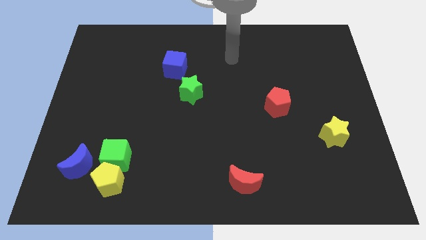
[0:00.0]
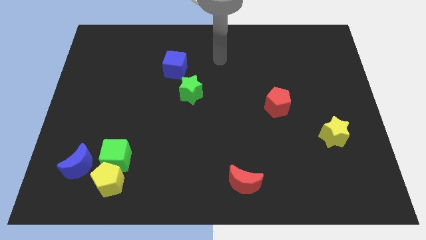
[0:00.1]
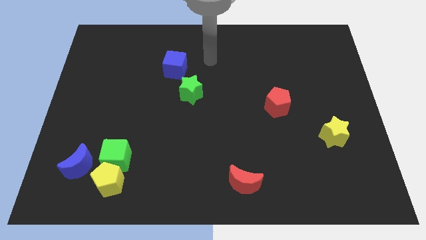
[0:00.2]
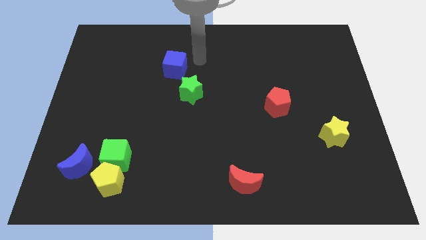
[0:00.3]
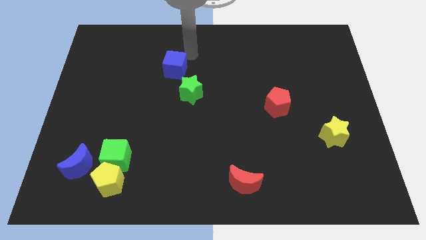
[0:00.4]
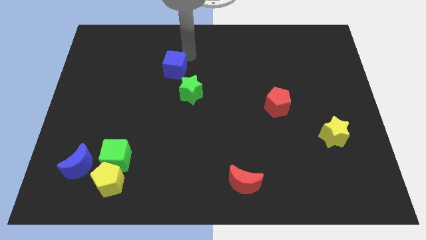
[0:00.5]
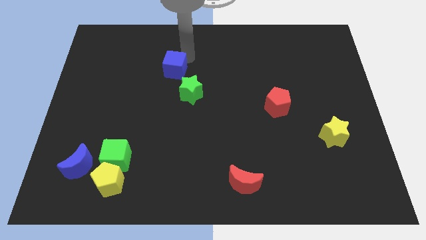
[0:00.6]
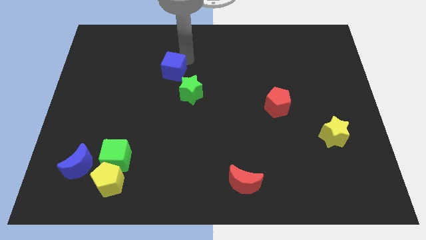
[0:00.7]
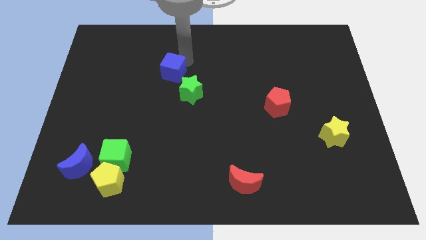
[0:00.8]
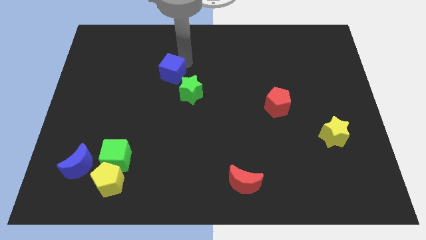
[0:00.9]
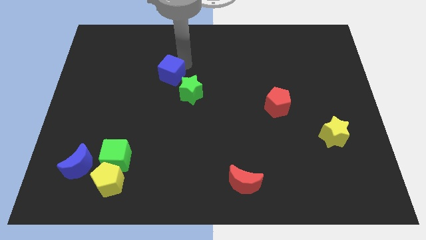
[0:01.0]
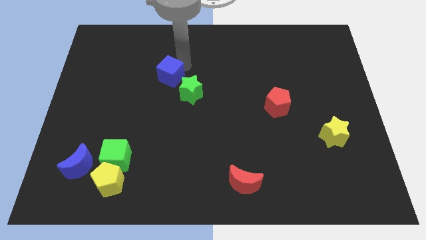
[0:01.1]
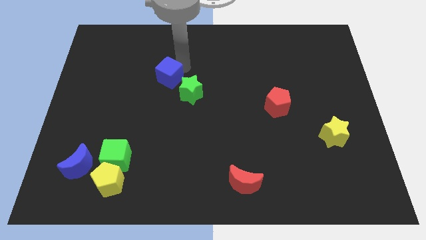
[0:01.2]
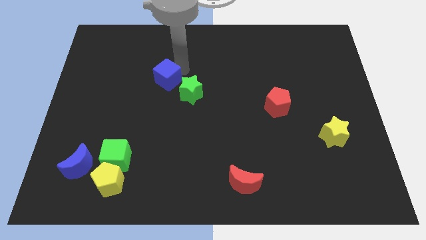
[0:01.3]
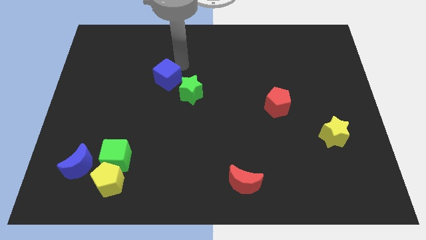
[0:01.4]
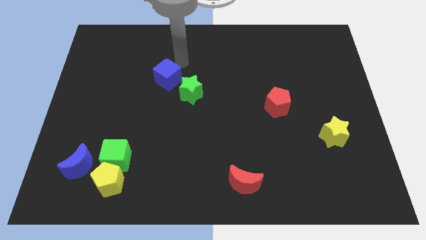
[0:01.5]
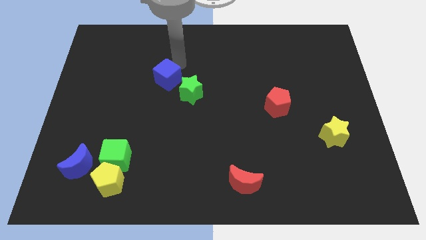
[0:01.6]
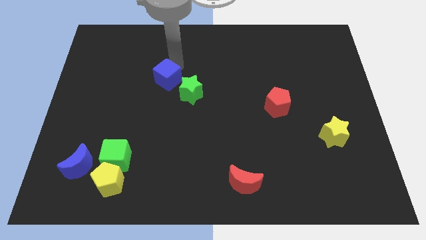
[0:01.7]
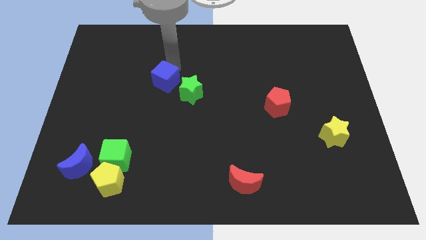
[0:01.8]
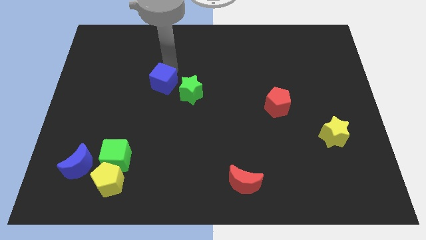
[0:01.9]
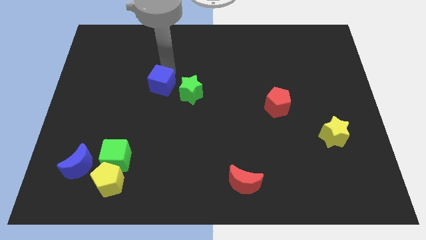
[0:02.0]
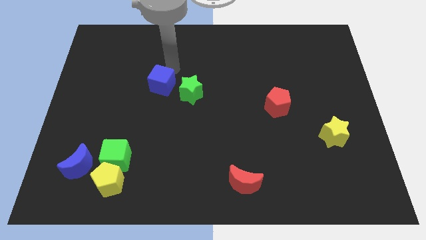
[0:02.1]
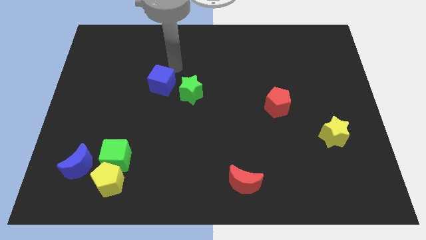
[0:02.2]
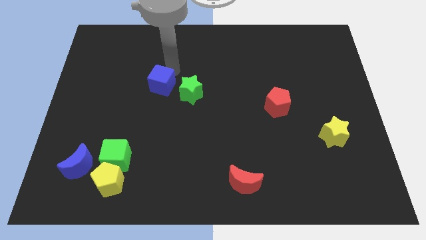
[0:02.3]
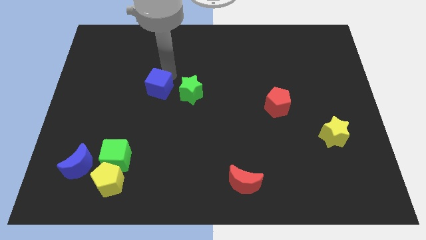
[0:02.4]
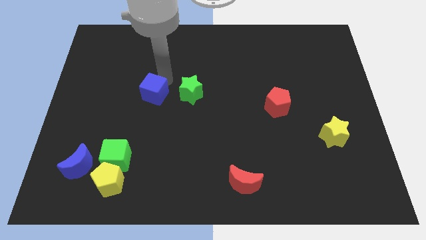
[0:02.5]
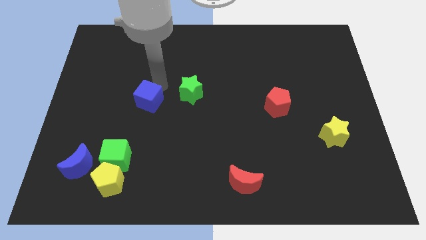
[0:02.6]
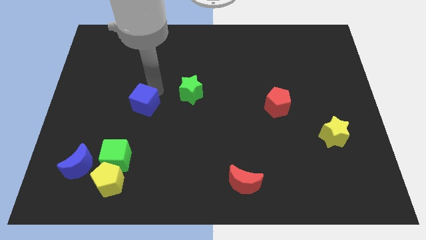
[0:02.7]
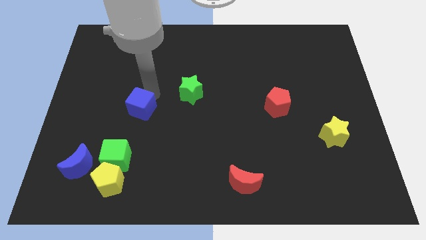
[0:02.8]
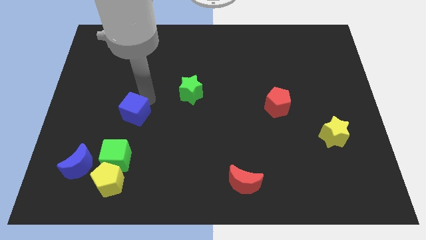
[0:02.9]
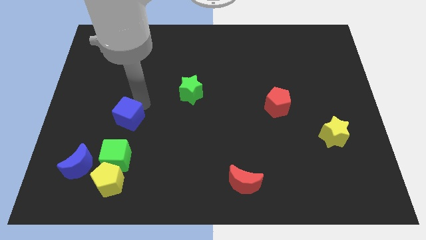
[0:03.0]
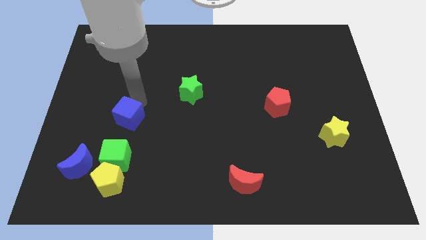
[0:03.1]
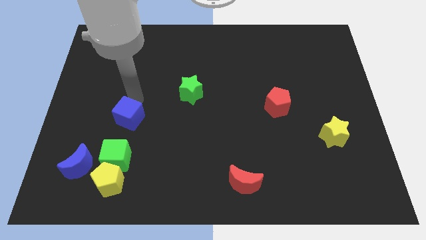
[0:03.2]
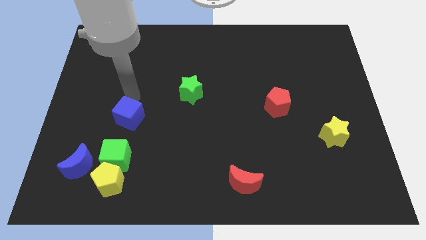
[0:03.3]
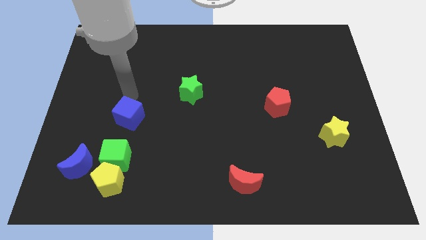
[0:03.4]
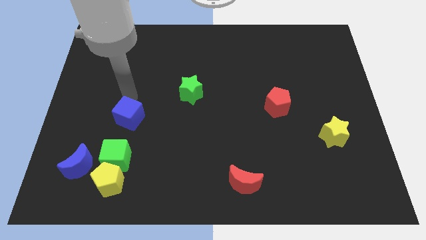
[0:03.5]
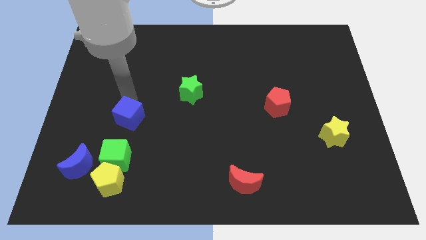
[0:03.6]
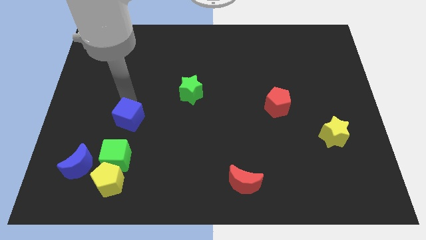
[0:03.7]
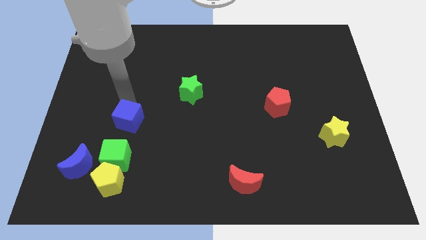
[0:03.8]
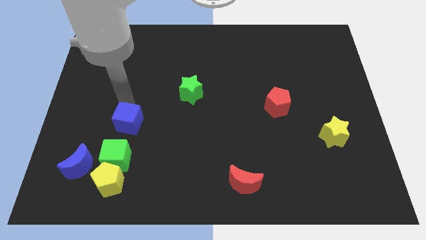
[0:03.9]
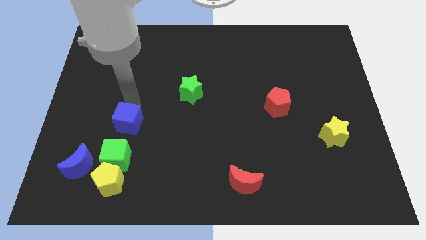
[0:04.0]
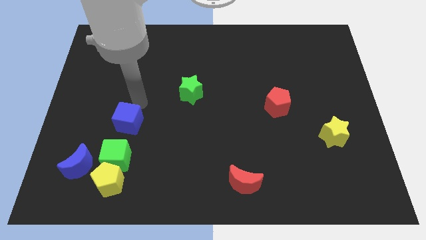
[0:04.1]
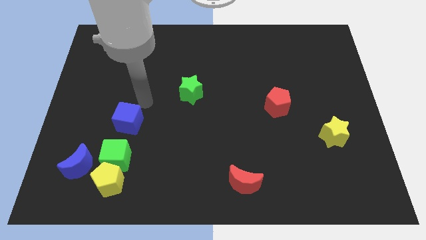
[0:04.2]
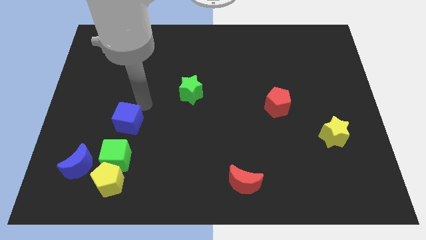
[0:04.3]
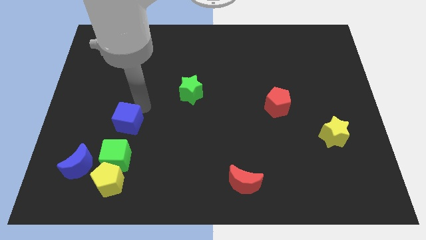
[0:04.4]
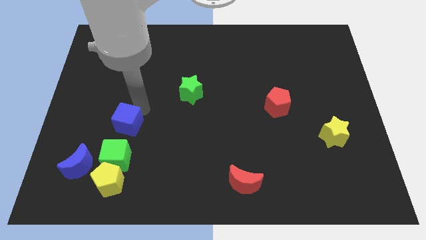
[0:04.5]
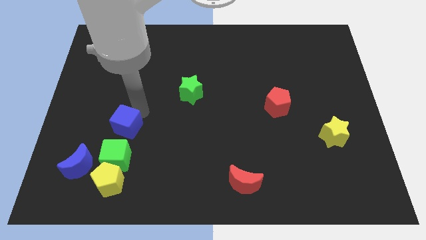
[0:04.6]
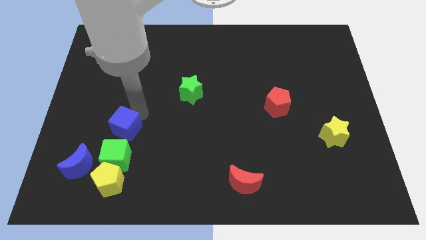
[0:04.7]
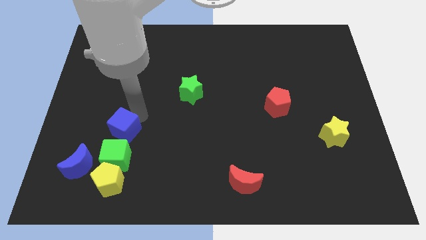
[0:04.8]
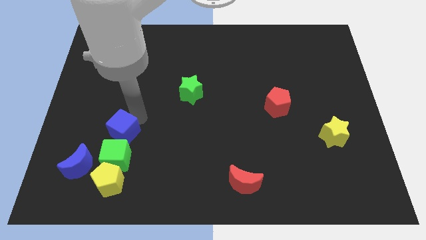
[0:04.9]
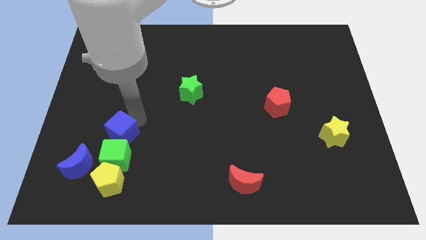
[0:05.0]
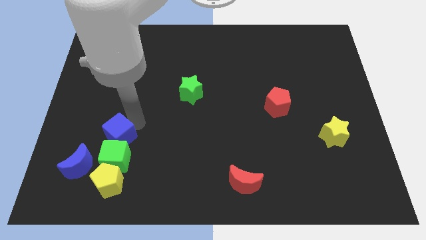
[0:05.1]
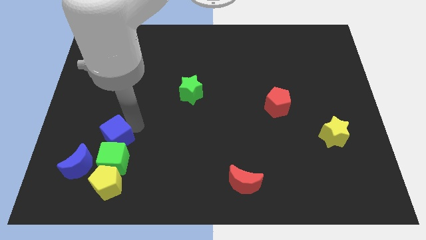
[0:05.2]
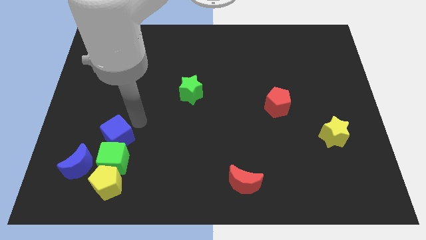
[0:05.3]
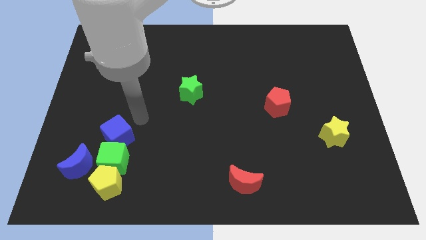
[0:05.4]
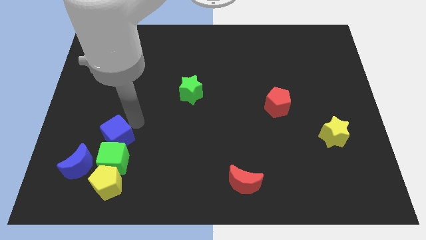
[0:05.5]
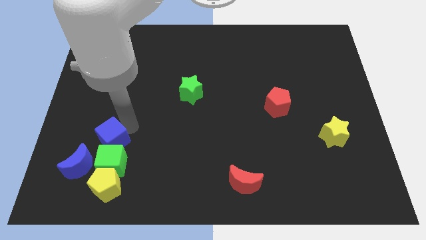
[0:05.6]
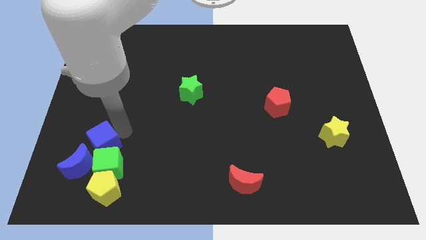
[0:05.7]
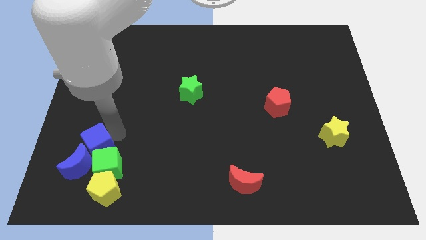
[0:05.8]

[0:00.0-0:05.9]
push the blue cube close to the blue moon

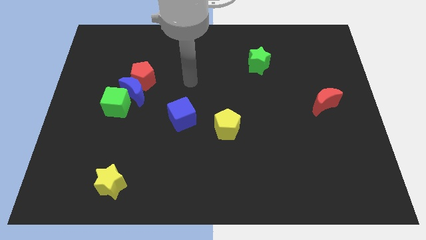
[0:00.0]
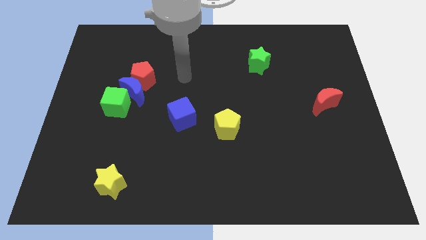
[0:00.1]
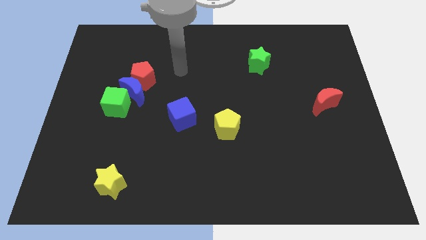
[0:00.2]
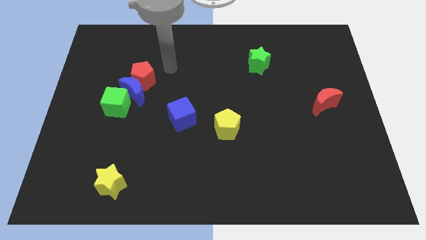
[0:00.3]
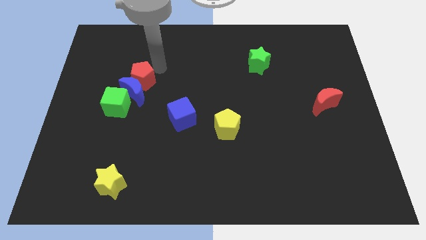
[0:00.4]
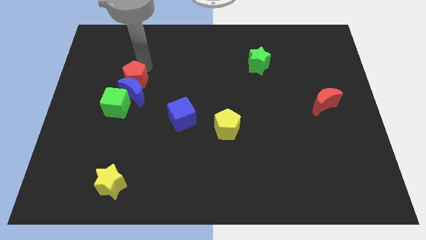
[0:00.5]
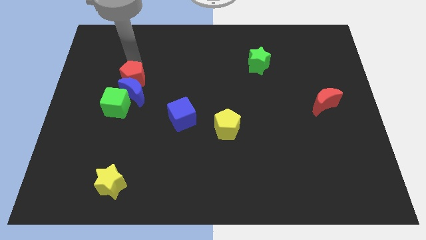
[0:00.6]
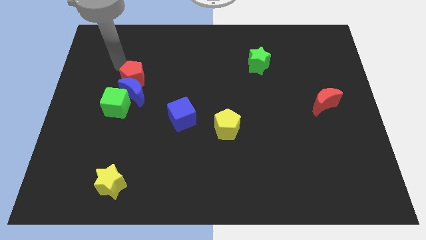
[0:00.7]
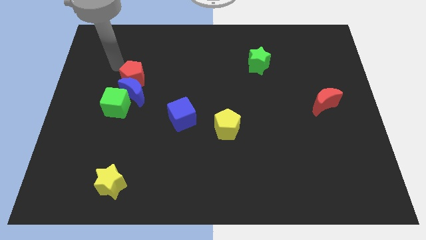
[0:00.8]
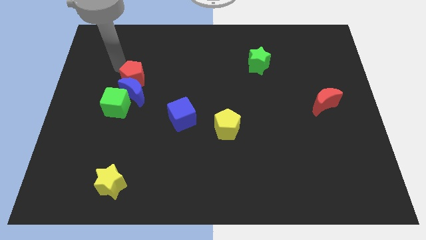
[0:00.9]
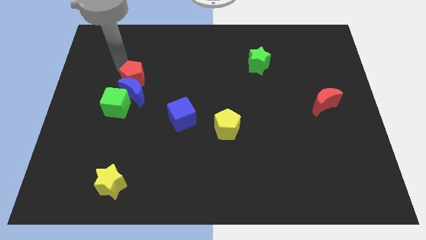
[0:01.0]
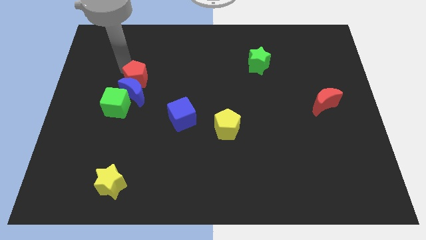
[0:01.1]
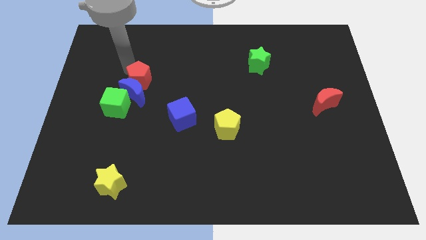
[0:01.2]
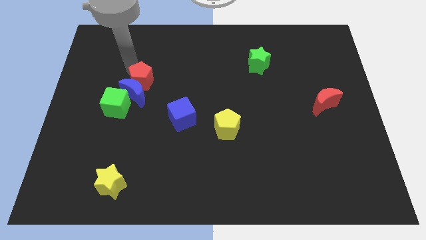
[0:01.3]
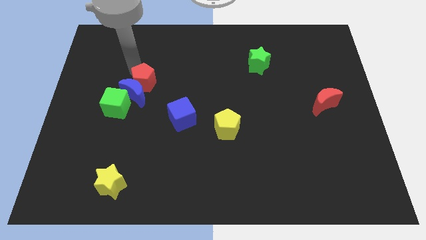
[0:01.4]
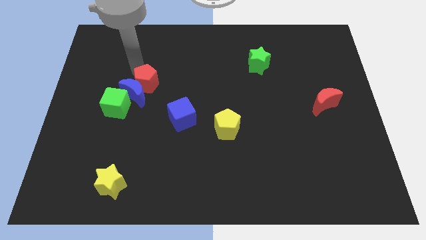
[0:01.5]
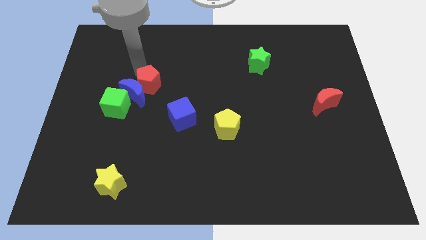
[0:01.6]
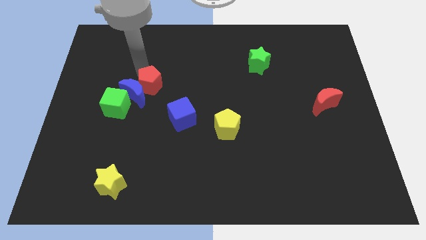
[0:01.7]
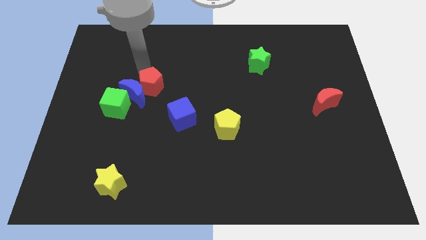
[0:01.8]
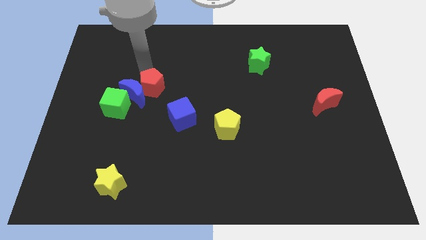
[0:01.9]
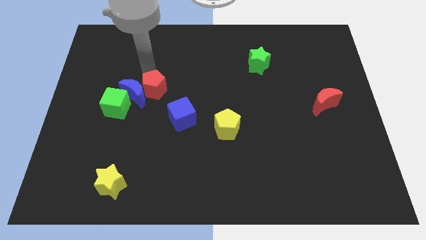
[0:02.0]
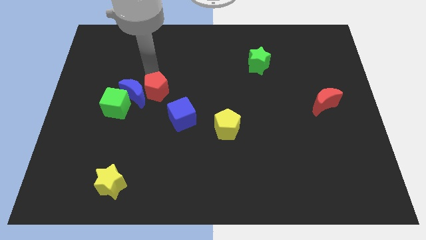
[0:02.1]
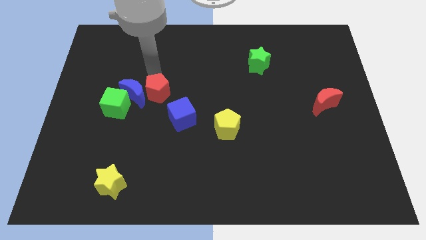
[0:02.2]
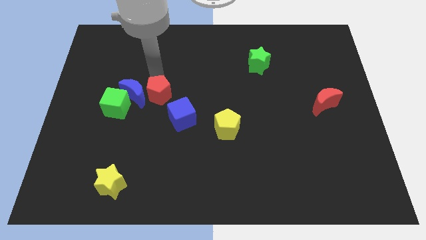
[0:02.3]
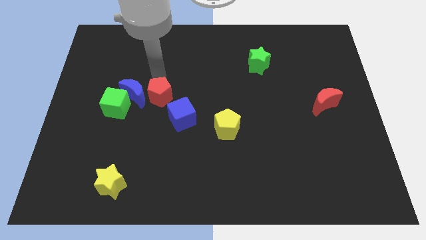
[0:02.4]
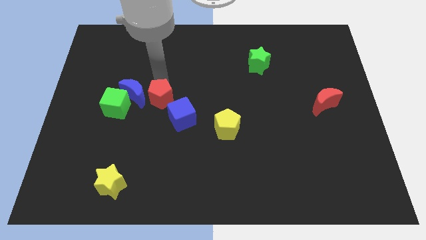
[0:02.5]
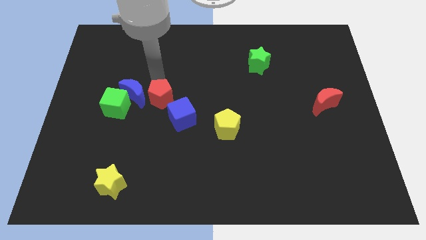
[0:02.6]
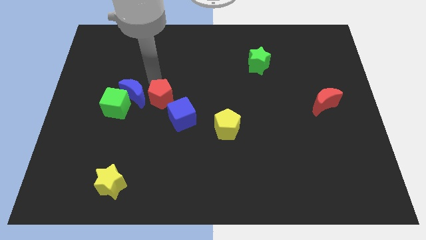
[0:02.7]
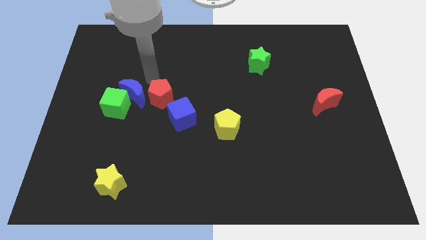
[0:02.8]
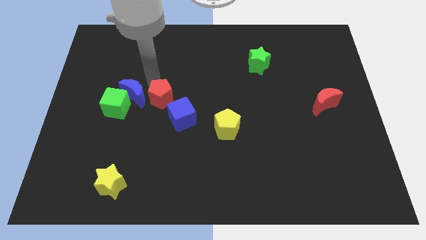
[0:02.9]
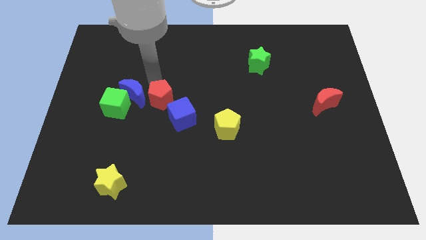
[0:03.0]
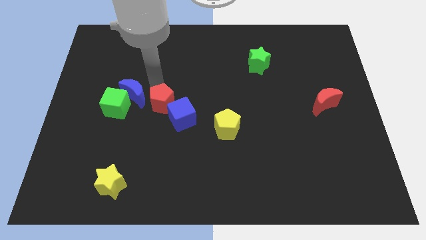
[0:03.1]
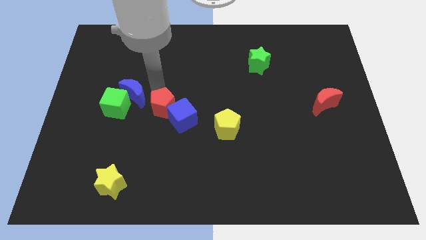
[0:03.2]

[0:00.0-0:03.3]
move the red pentagon close to the blue cube
